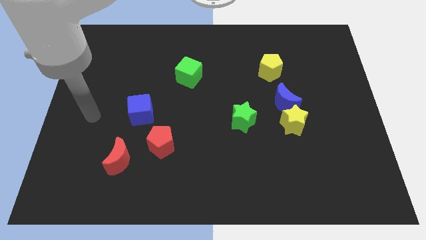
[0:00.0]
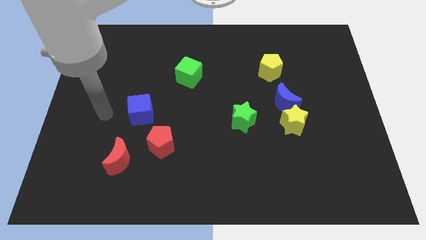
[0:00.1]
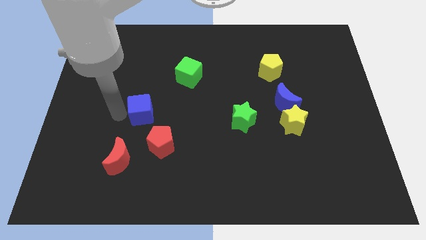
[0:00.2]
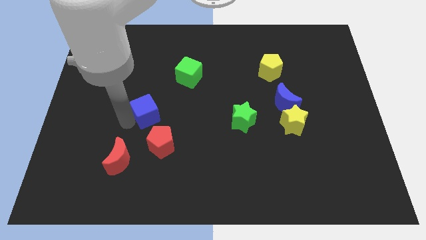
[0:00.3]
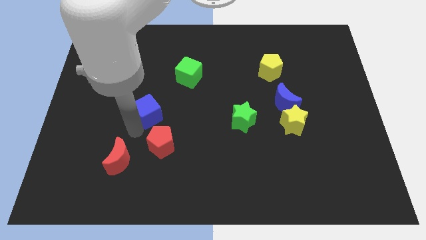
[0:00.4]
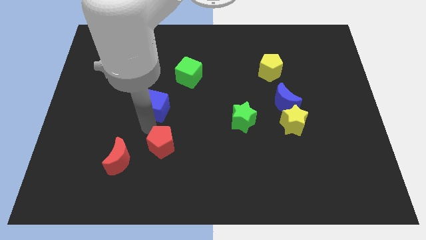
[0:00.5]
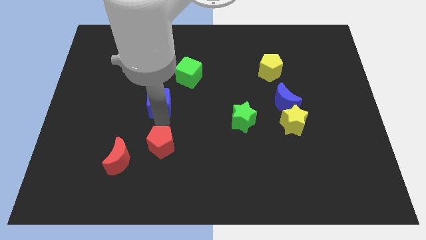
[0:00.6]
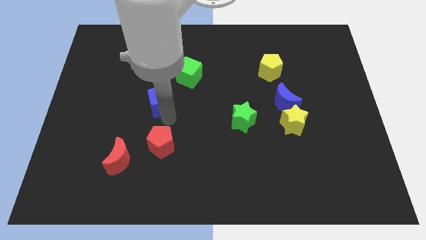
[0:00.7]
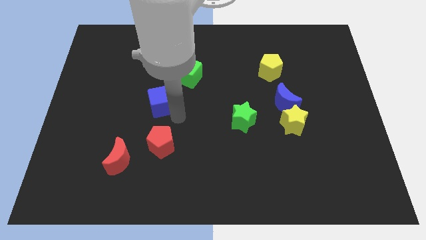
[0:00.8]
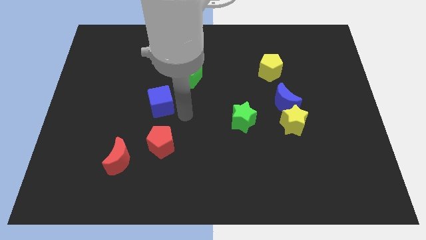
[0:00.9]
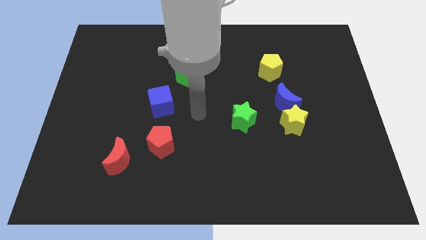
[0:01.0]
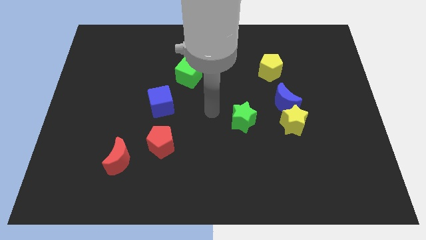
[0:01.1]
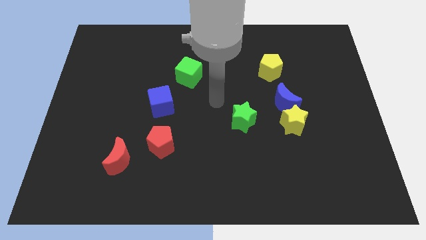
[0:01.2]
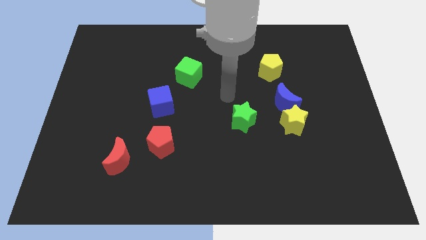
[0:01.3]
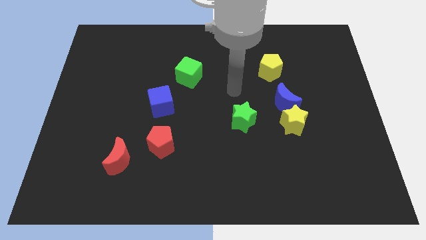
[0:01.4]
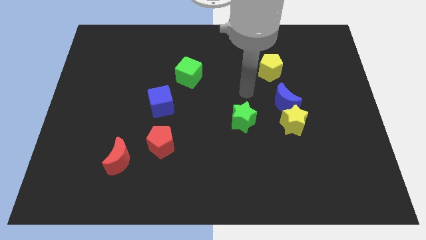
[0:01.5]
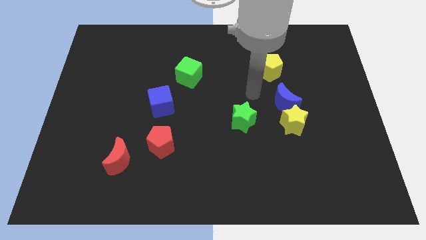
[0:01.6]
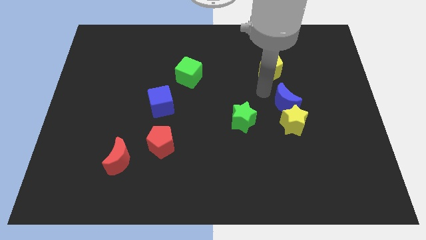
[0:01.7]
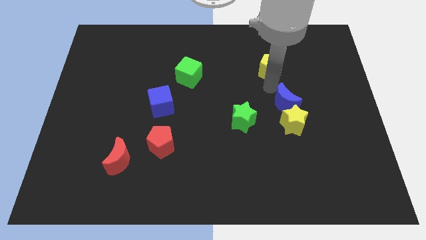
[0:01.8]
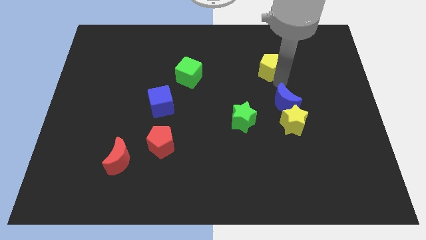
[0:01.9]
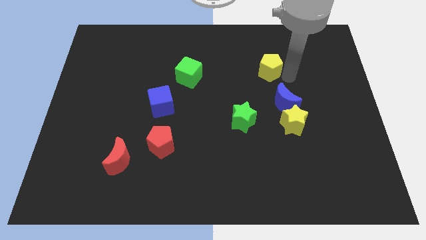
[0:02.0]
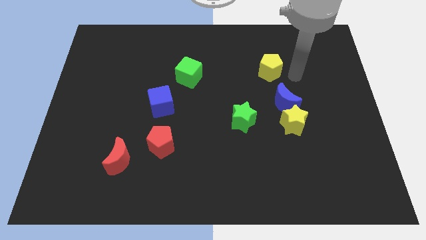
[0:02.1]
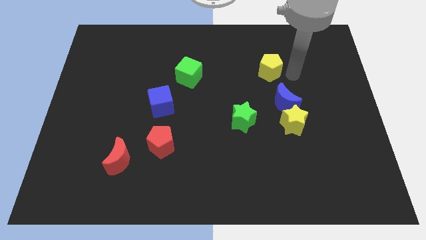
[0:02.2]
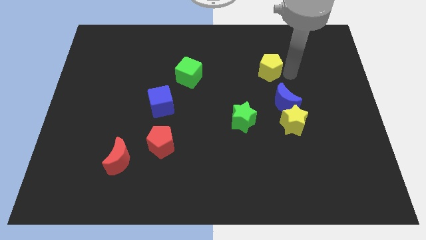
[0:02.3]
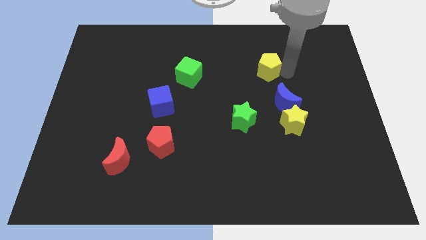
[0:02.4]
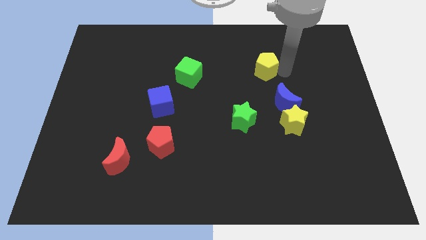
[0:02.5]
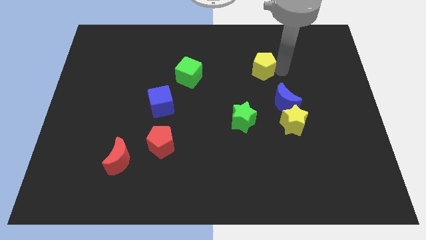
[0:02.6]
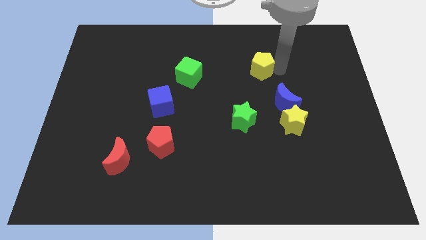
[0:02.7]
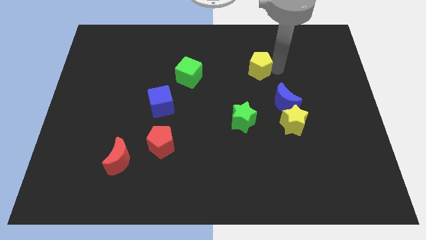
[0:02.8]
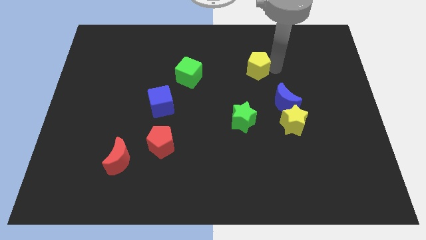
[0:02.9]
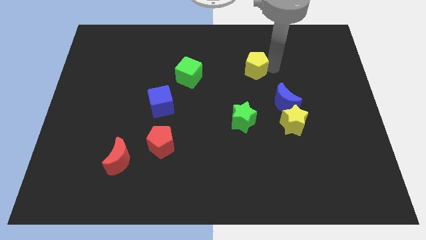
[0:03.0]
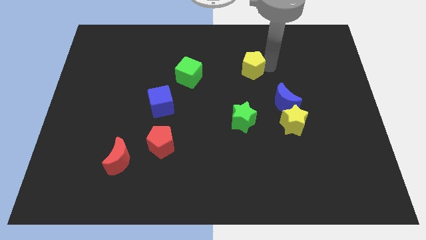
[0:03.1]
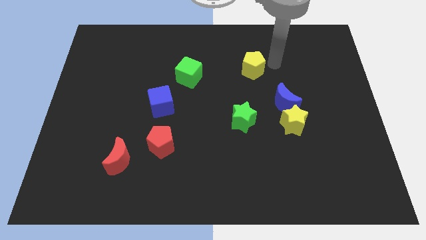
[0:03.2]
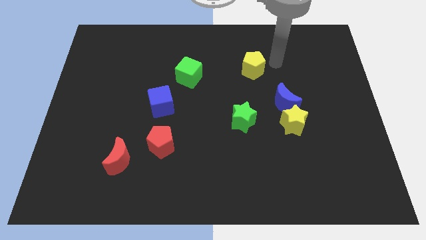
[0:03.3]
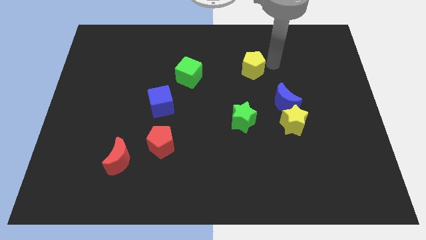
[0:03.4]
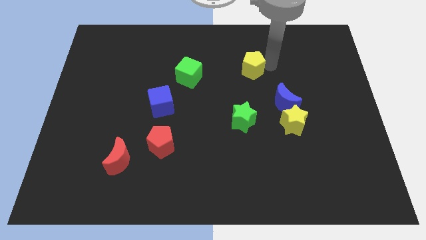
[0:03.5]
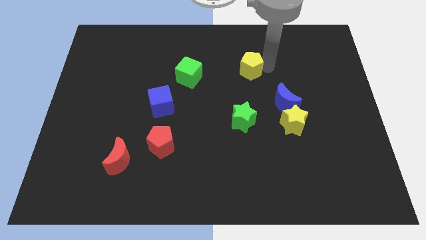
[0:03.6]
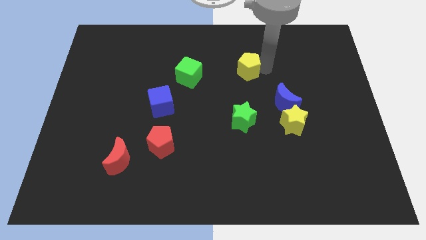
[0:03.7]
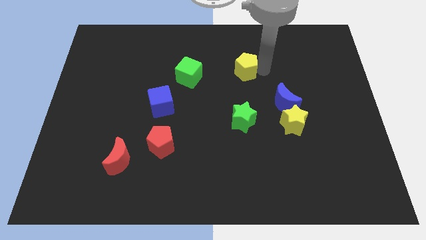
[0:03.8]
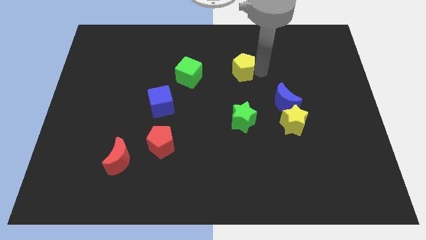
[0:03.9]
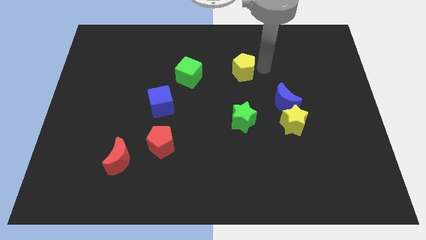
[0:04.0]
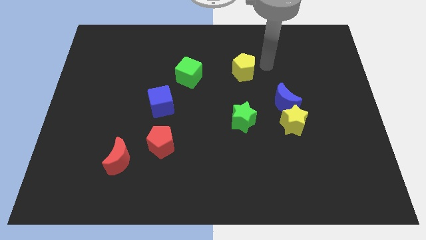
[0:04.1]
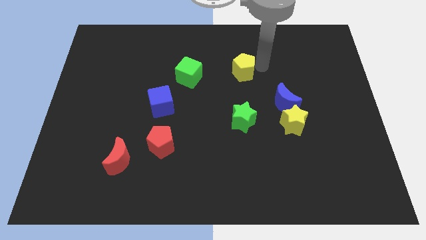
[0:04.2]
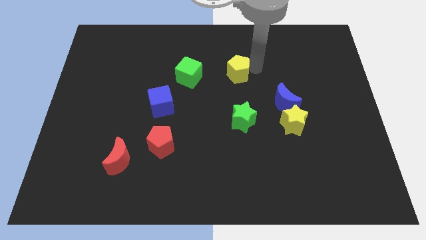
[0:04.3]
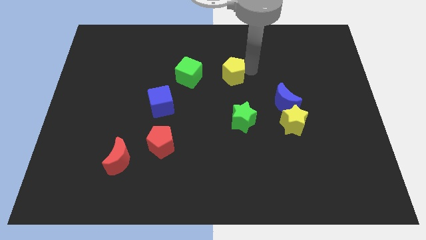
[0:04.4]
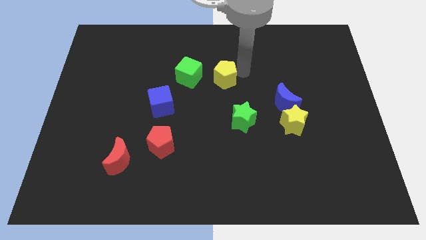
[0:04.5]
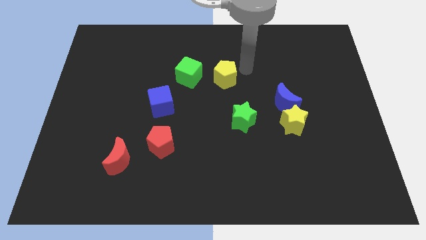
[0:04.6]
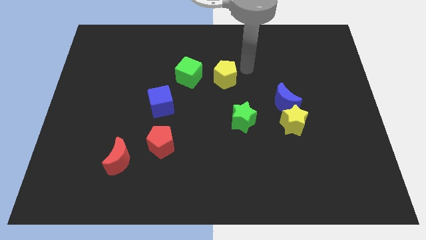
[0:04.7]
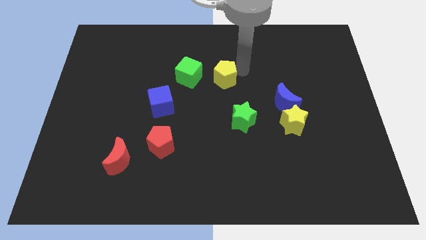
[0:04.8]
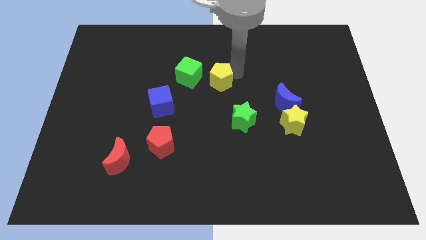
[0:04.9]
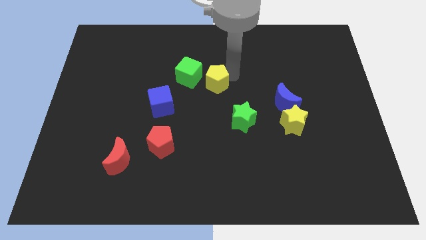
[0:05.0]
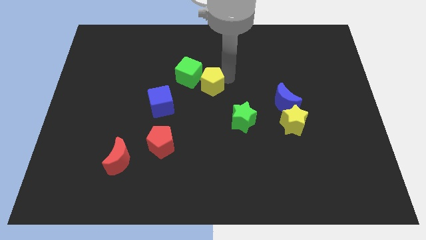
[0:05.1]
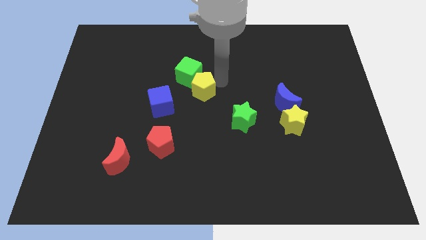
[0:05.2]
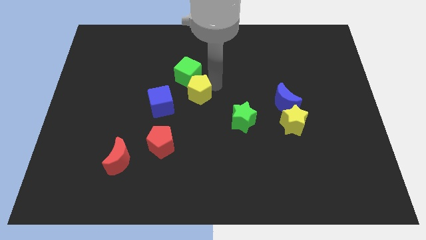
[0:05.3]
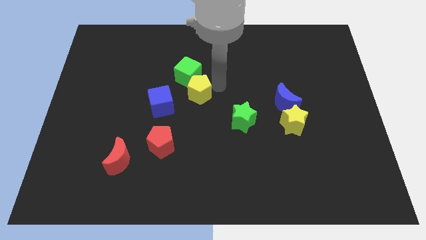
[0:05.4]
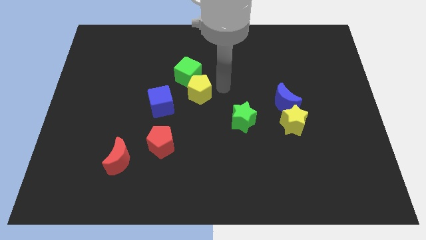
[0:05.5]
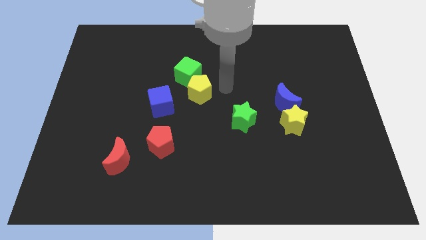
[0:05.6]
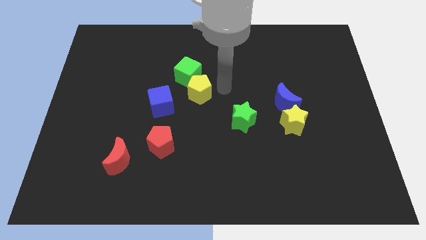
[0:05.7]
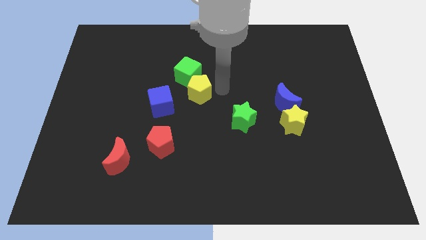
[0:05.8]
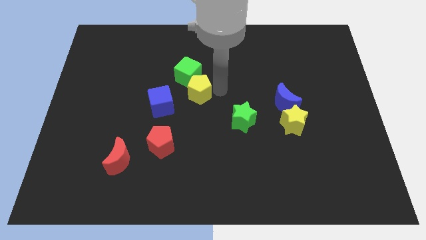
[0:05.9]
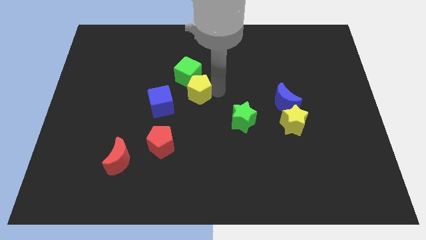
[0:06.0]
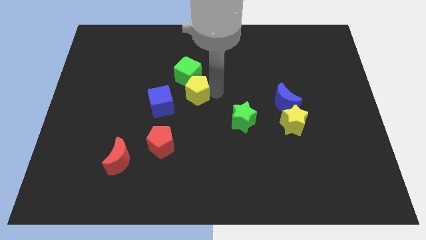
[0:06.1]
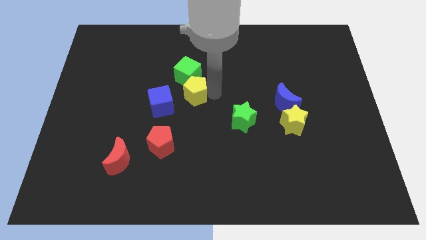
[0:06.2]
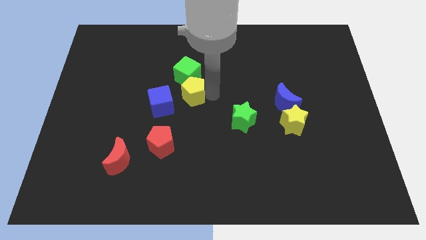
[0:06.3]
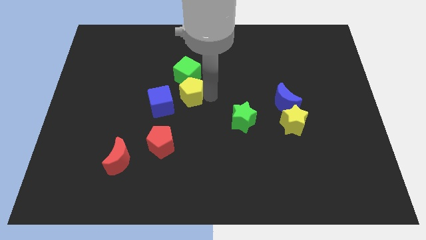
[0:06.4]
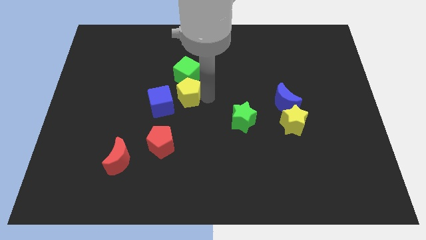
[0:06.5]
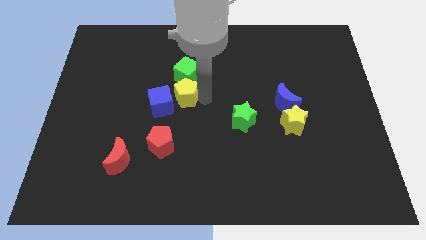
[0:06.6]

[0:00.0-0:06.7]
put the yellow pentagon close to the blue cube

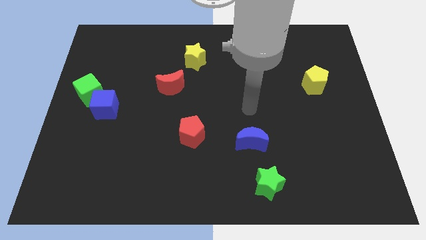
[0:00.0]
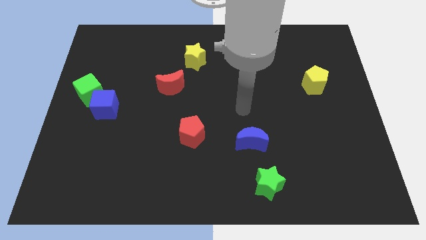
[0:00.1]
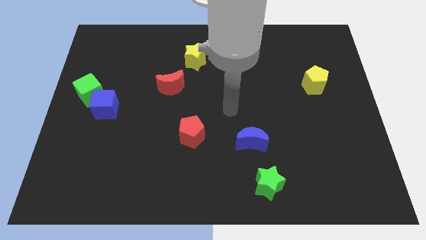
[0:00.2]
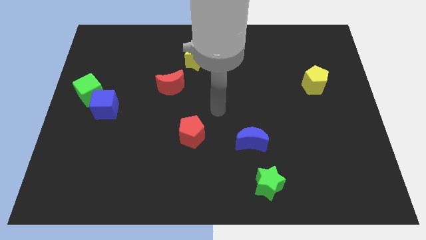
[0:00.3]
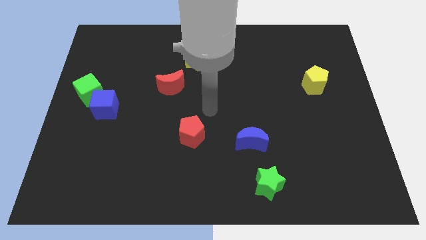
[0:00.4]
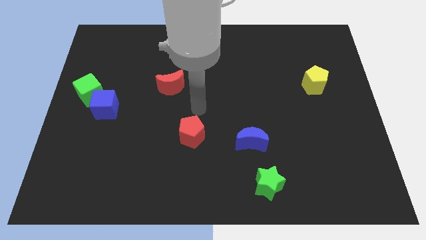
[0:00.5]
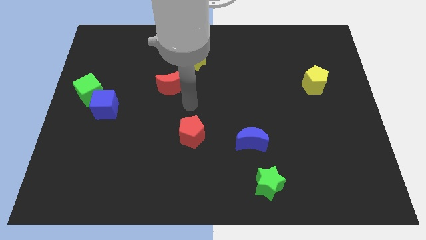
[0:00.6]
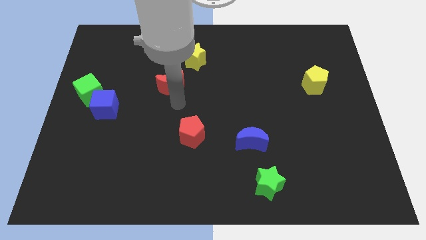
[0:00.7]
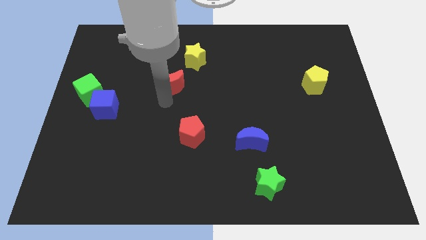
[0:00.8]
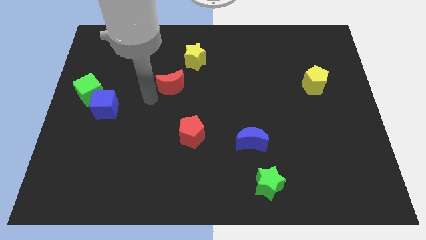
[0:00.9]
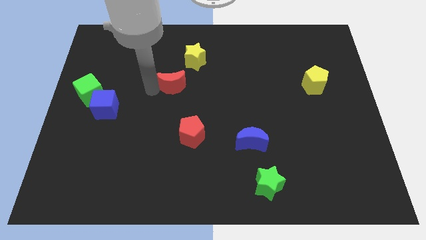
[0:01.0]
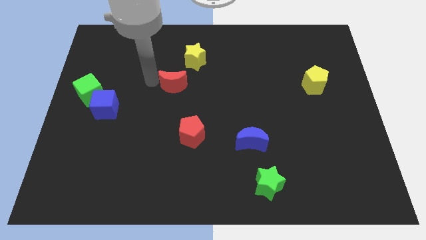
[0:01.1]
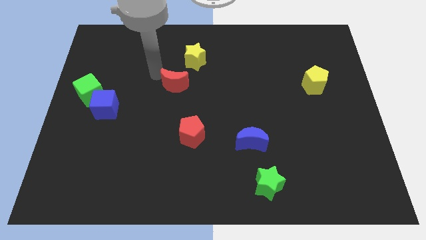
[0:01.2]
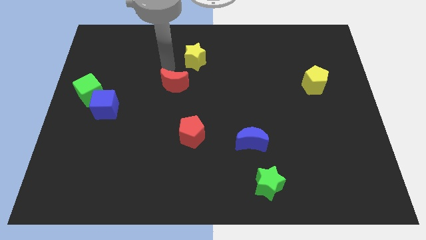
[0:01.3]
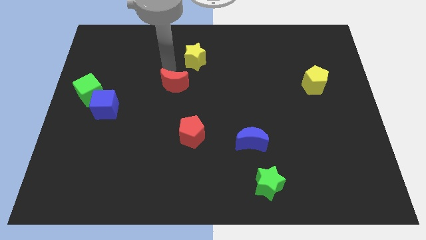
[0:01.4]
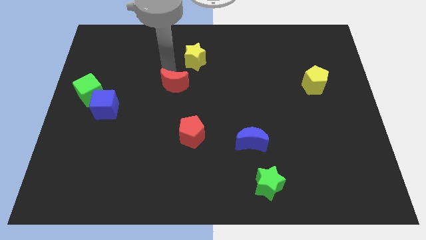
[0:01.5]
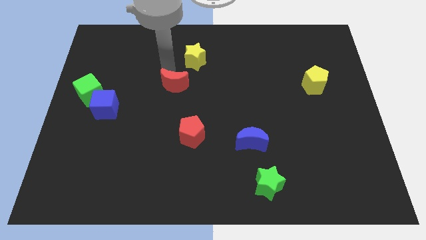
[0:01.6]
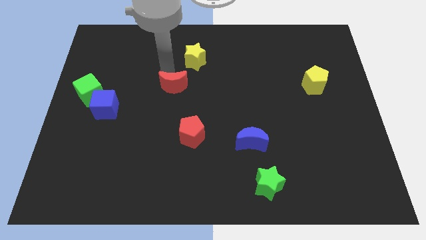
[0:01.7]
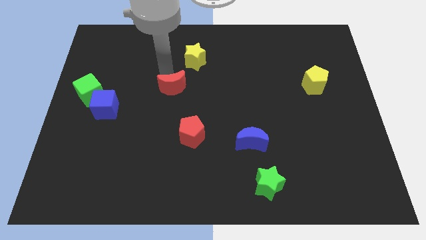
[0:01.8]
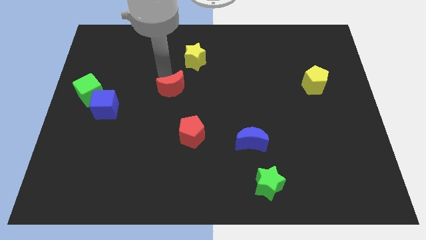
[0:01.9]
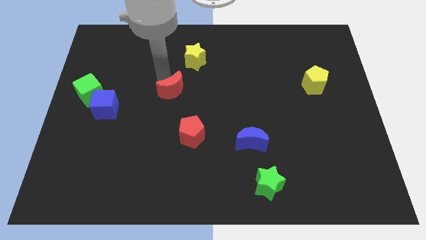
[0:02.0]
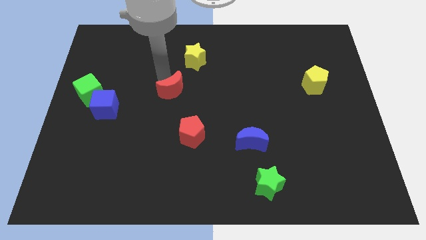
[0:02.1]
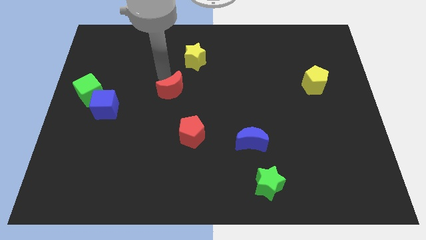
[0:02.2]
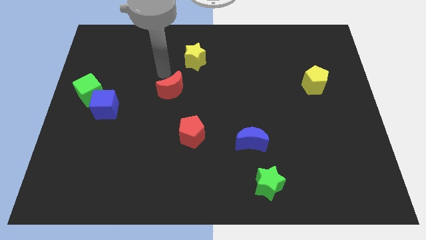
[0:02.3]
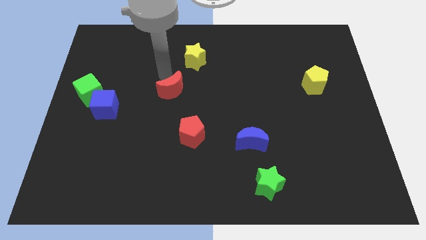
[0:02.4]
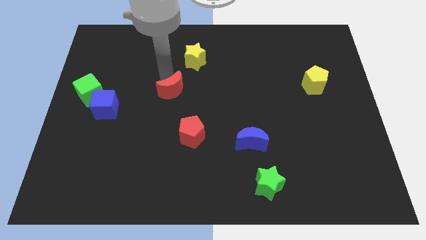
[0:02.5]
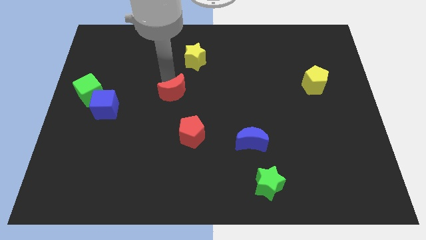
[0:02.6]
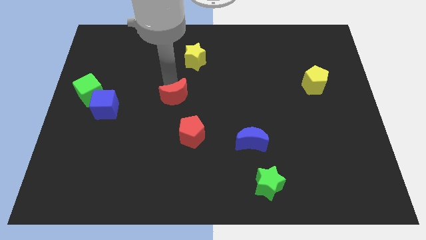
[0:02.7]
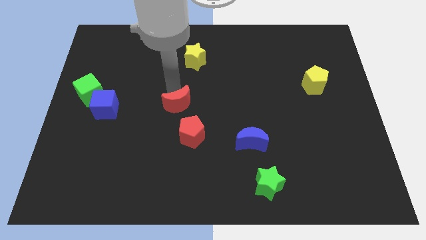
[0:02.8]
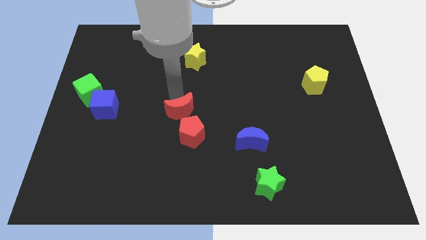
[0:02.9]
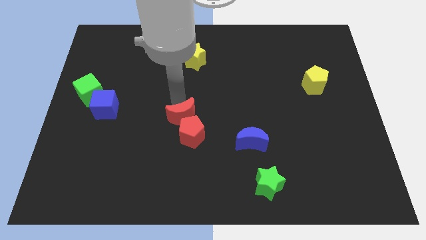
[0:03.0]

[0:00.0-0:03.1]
move the red moon close to the red pentagon
